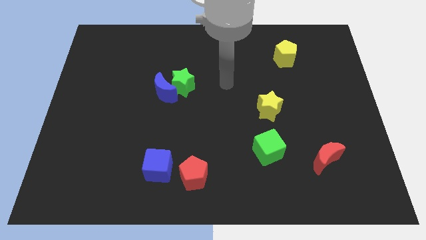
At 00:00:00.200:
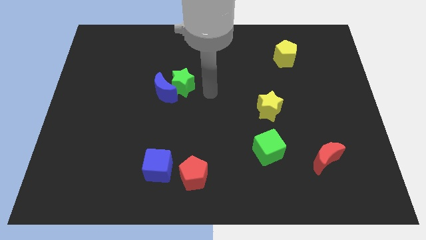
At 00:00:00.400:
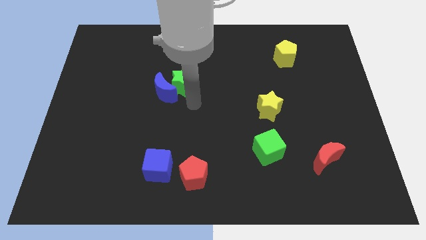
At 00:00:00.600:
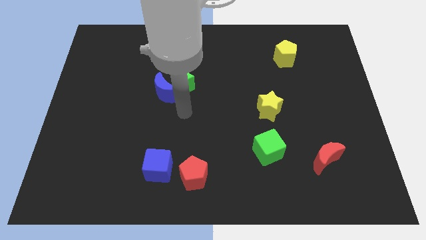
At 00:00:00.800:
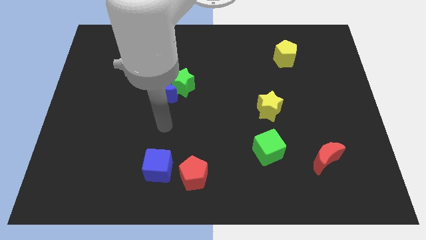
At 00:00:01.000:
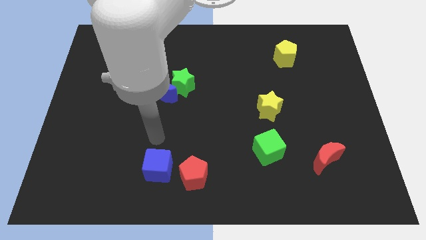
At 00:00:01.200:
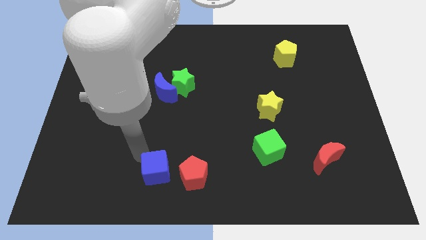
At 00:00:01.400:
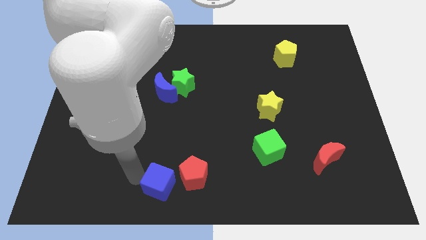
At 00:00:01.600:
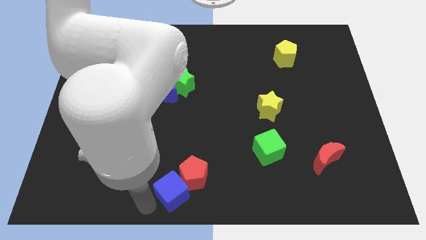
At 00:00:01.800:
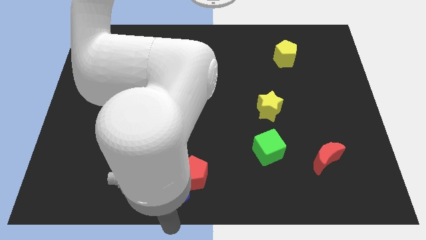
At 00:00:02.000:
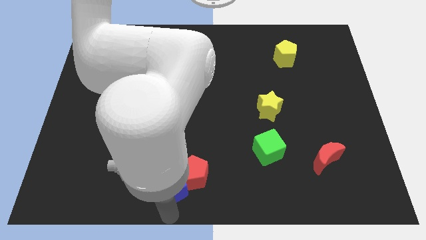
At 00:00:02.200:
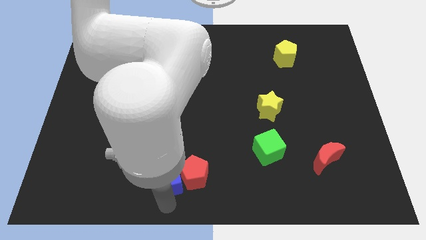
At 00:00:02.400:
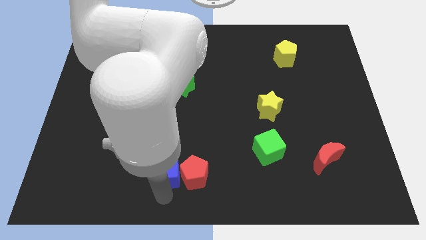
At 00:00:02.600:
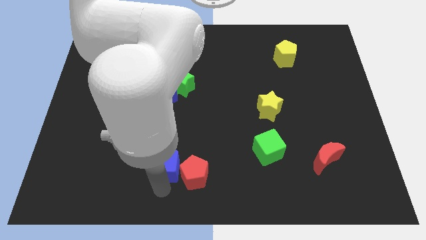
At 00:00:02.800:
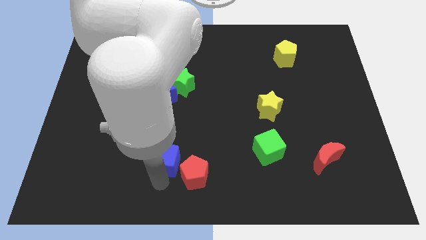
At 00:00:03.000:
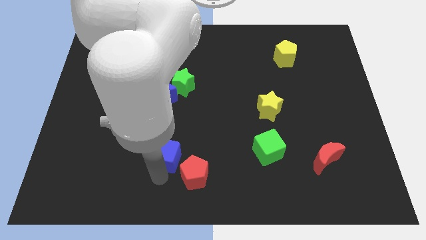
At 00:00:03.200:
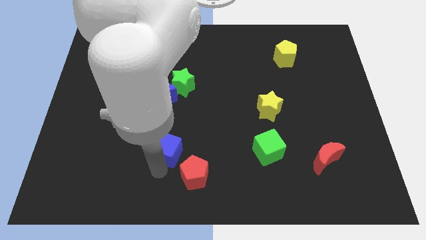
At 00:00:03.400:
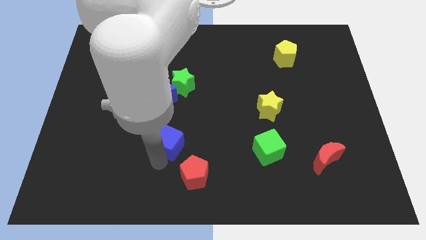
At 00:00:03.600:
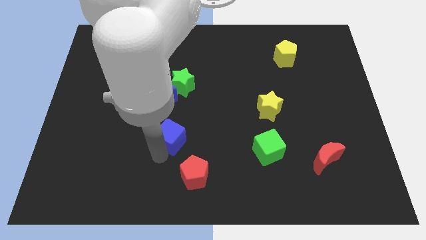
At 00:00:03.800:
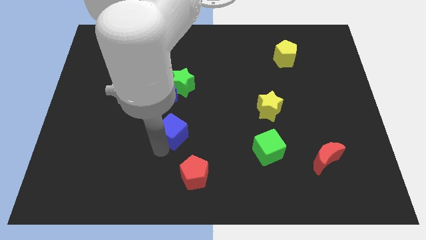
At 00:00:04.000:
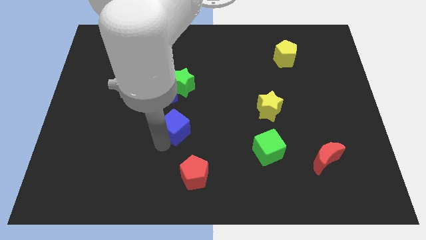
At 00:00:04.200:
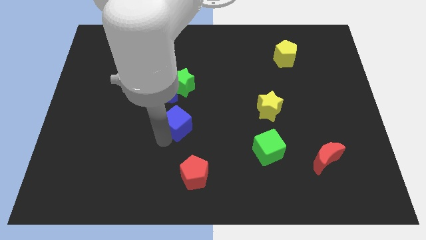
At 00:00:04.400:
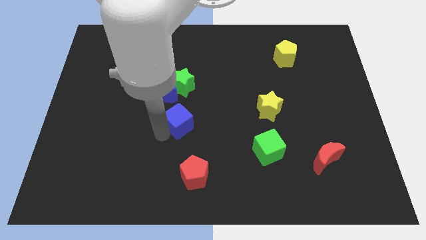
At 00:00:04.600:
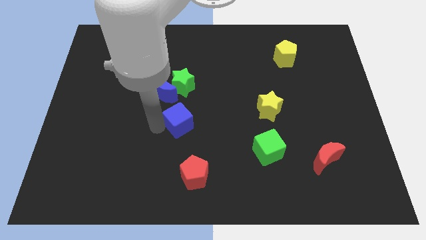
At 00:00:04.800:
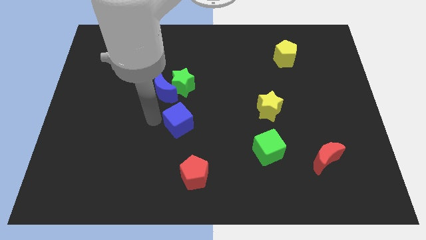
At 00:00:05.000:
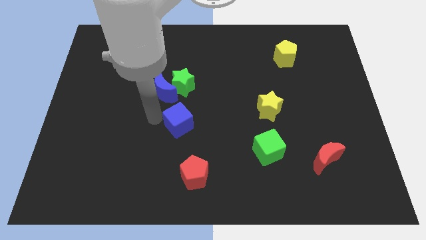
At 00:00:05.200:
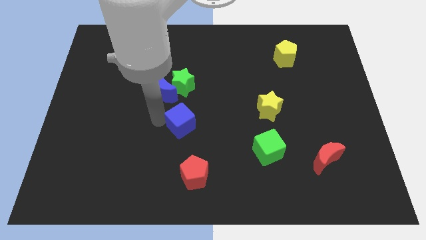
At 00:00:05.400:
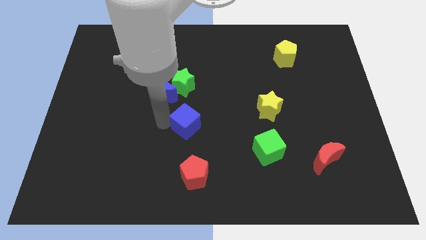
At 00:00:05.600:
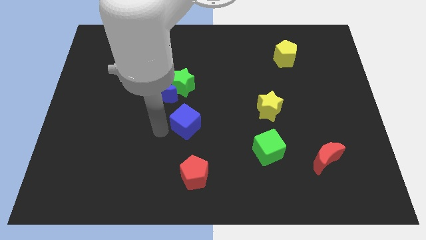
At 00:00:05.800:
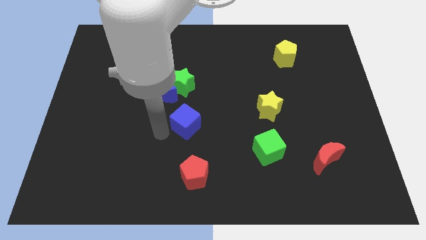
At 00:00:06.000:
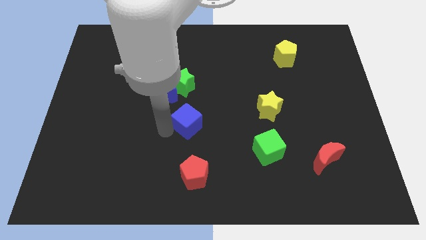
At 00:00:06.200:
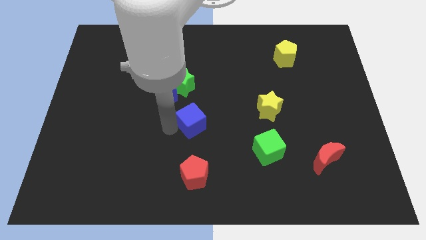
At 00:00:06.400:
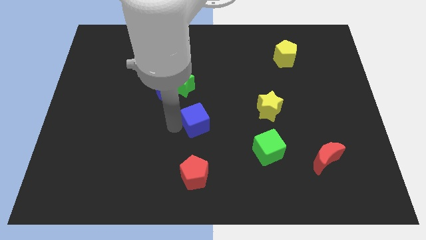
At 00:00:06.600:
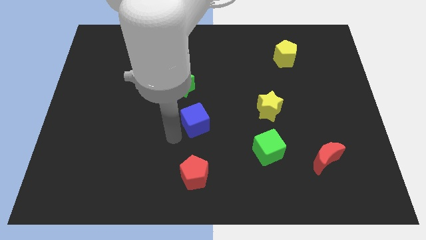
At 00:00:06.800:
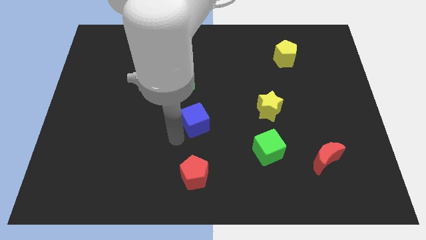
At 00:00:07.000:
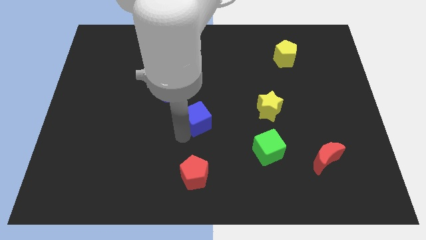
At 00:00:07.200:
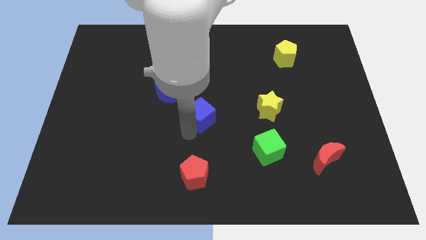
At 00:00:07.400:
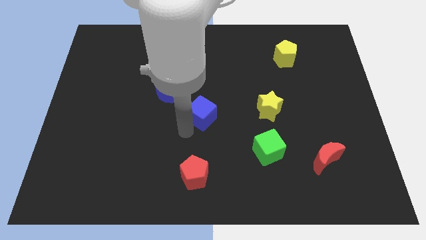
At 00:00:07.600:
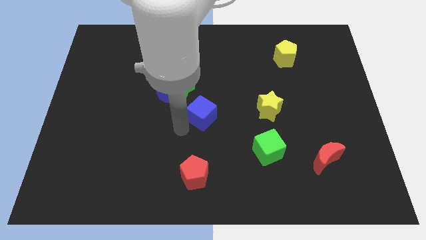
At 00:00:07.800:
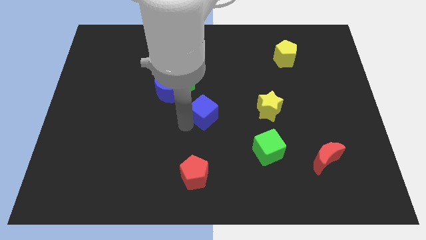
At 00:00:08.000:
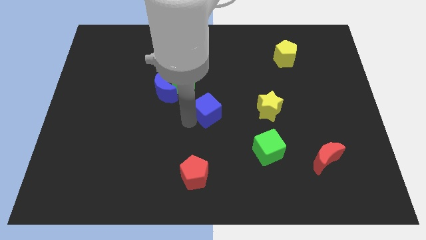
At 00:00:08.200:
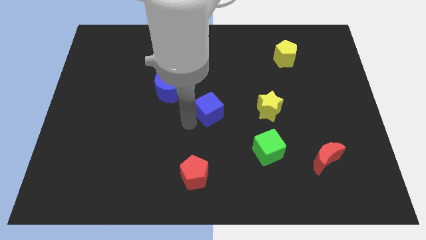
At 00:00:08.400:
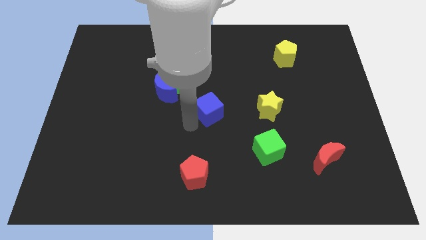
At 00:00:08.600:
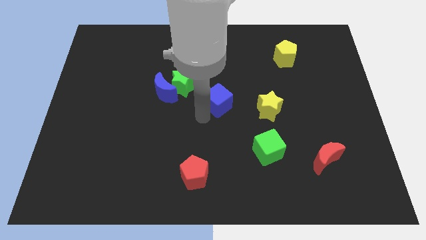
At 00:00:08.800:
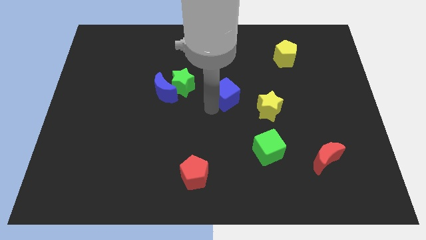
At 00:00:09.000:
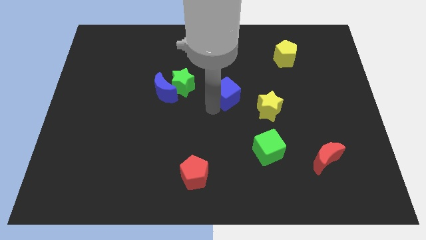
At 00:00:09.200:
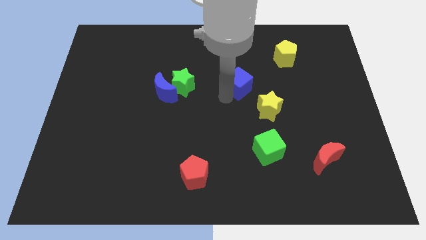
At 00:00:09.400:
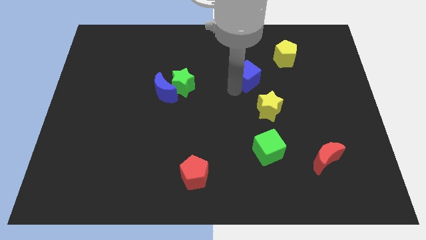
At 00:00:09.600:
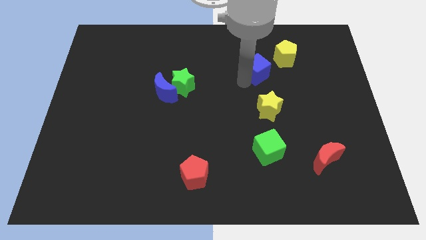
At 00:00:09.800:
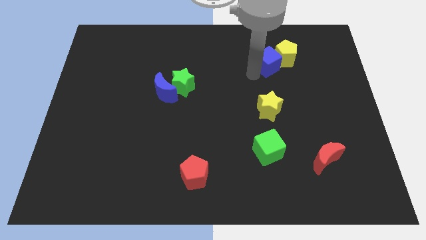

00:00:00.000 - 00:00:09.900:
push the blue cube close to the yellow pentagon

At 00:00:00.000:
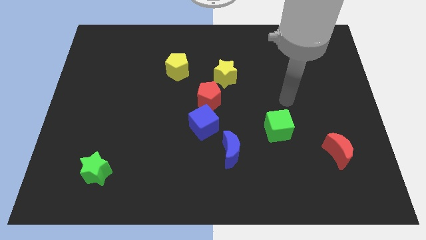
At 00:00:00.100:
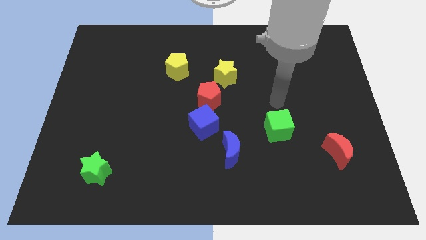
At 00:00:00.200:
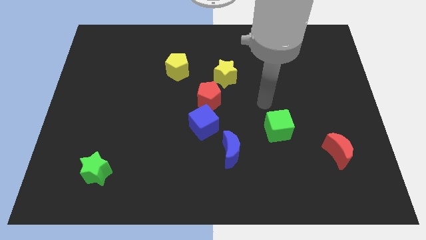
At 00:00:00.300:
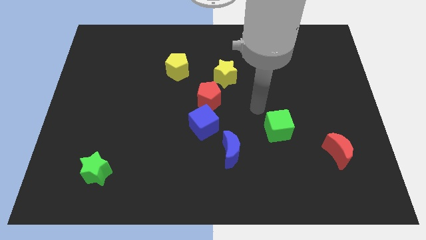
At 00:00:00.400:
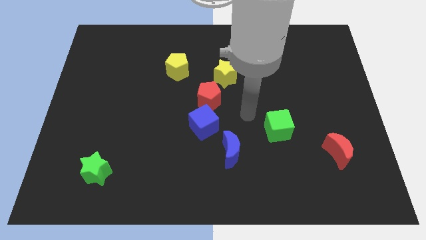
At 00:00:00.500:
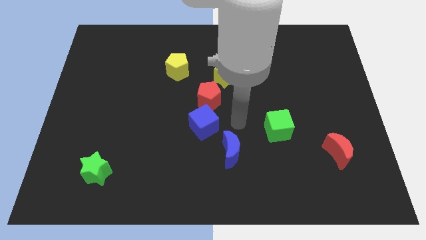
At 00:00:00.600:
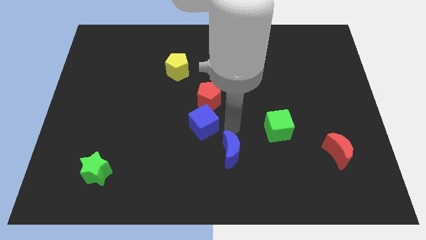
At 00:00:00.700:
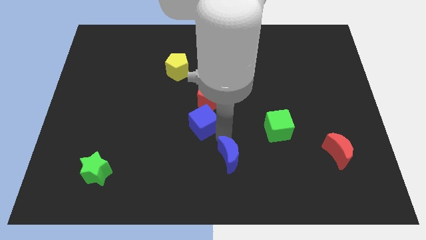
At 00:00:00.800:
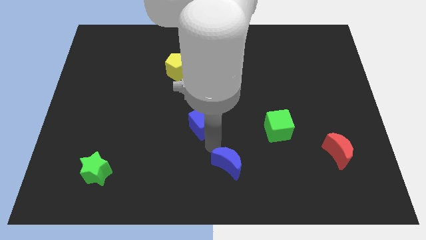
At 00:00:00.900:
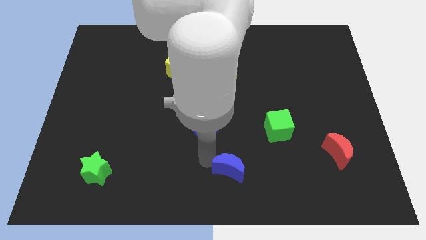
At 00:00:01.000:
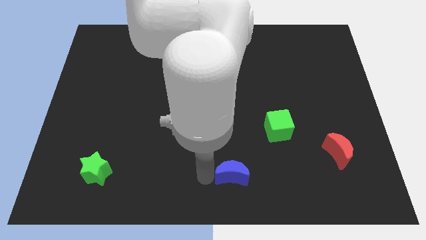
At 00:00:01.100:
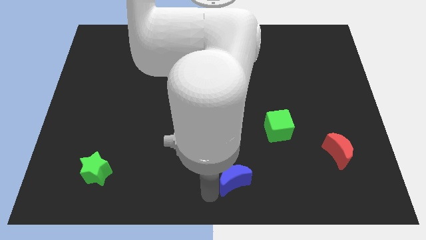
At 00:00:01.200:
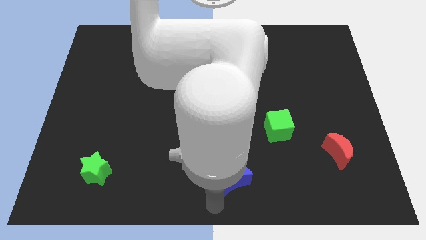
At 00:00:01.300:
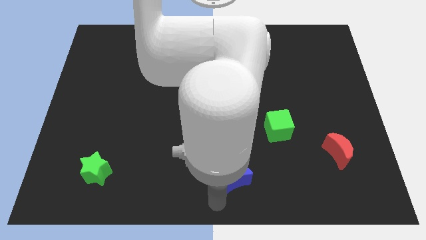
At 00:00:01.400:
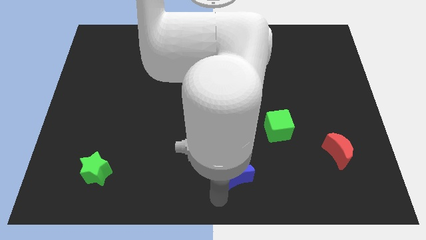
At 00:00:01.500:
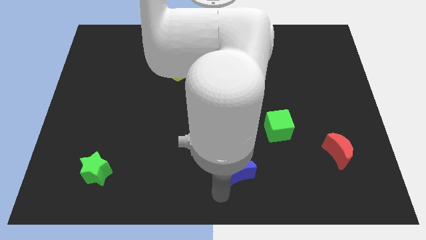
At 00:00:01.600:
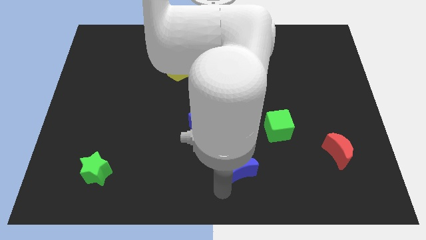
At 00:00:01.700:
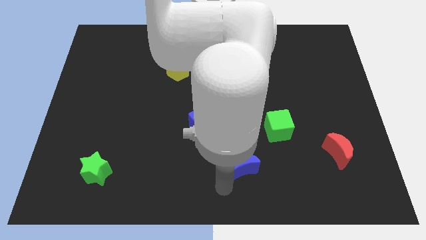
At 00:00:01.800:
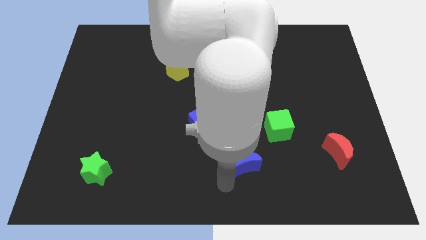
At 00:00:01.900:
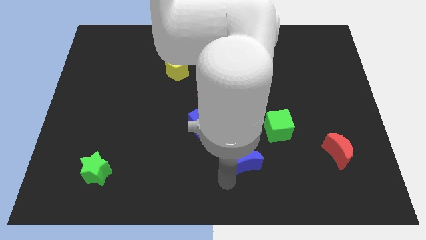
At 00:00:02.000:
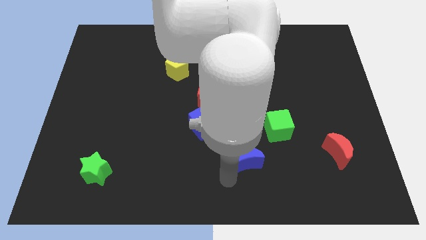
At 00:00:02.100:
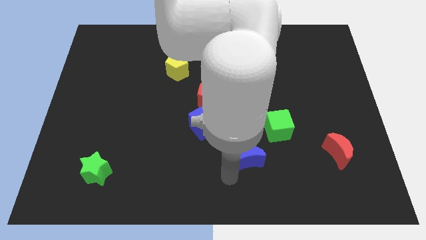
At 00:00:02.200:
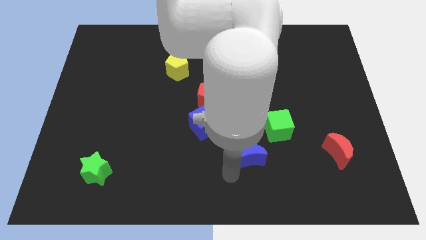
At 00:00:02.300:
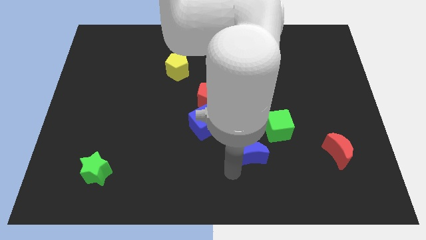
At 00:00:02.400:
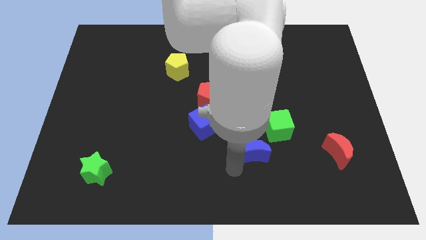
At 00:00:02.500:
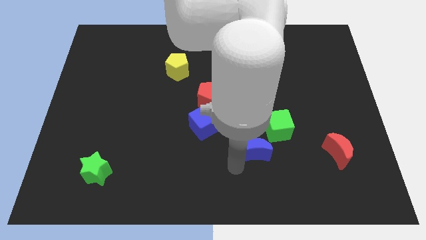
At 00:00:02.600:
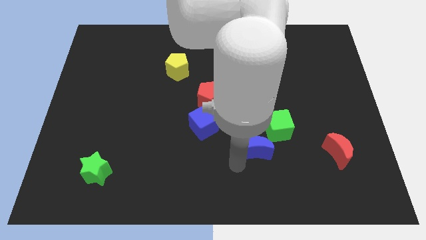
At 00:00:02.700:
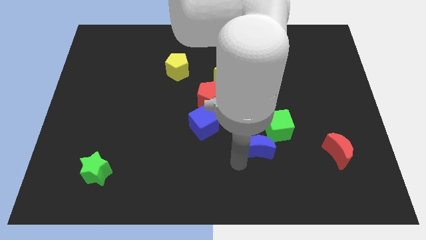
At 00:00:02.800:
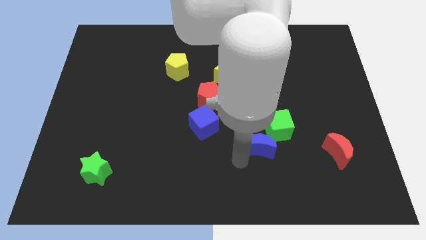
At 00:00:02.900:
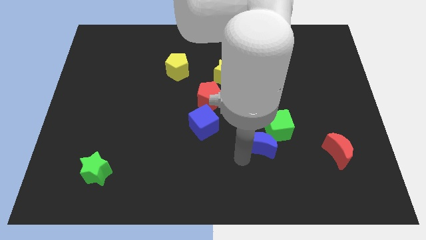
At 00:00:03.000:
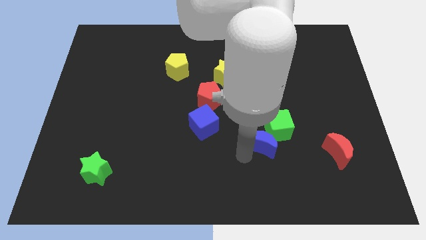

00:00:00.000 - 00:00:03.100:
move the blue moon next to the green cube
